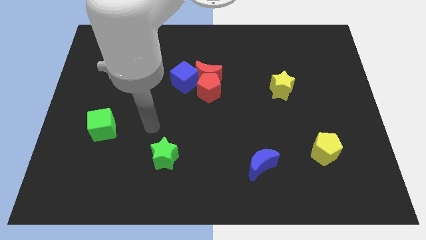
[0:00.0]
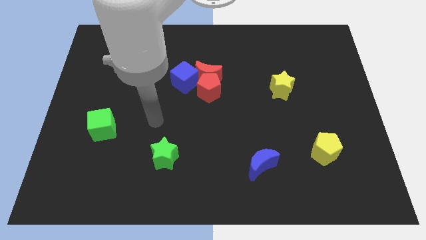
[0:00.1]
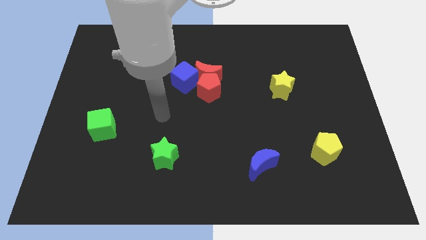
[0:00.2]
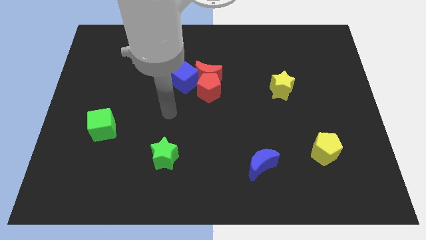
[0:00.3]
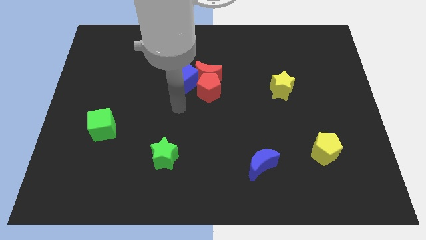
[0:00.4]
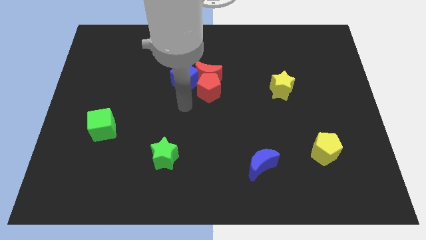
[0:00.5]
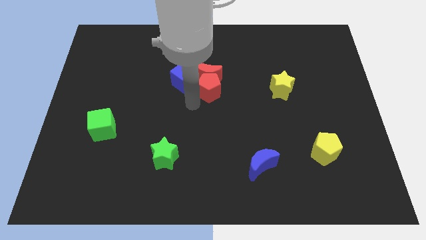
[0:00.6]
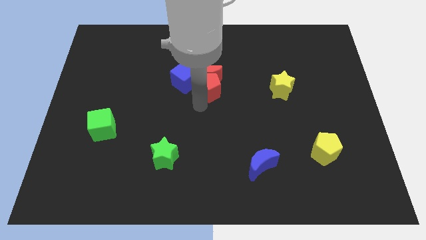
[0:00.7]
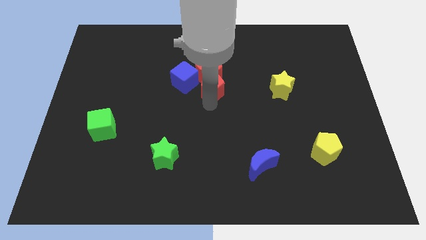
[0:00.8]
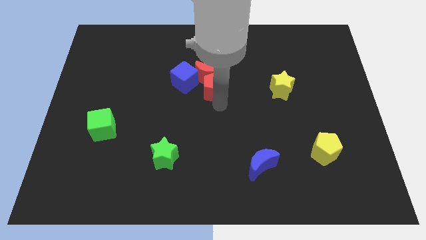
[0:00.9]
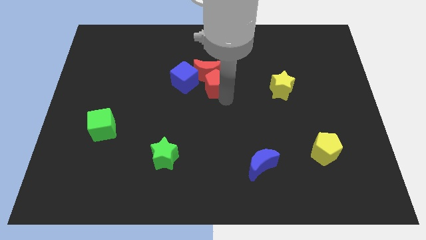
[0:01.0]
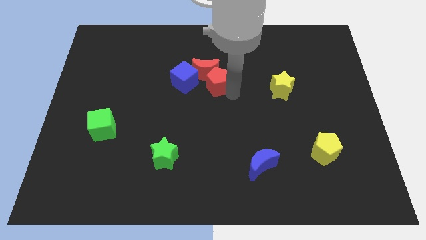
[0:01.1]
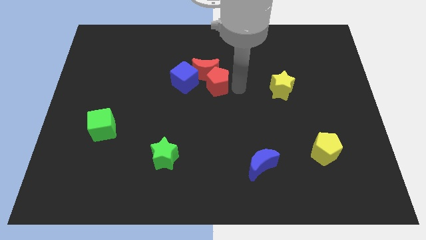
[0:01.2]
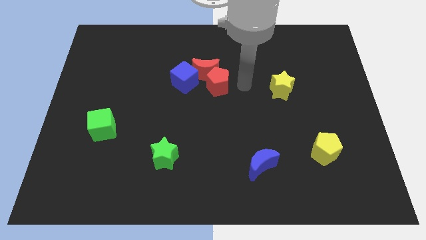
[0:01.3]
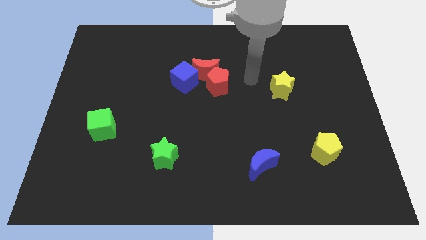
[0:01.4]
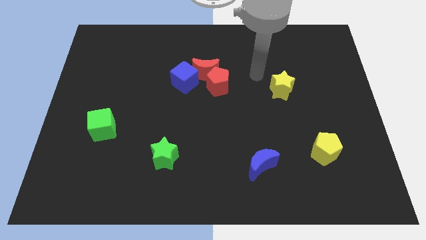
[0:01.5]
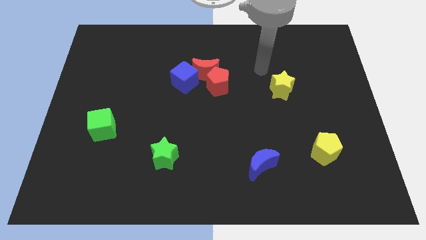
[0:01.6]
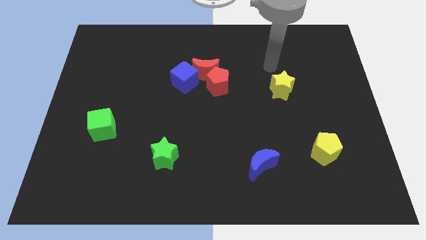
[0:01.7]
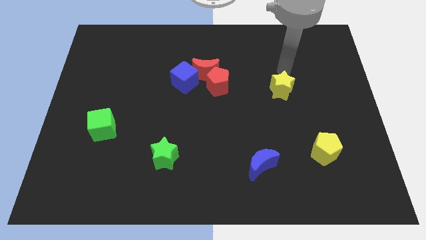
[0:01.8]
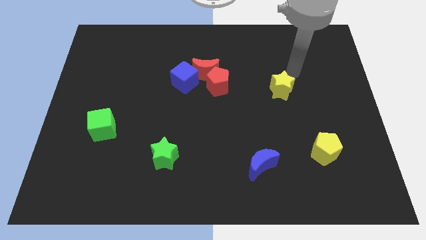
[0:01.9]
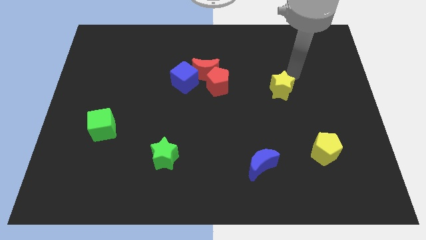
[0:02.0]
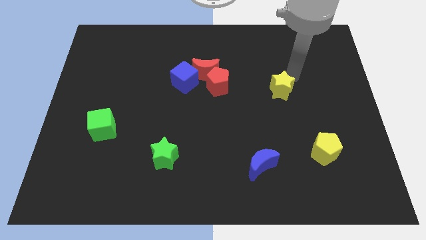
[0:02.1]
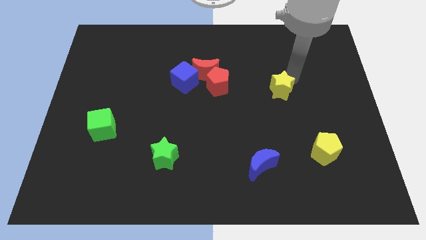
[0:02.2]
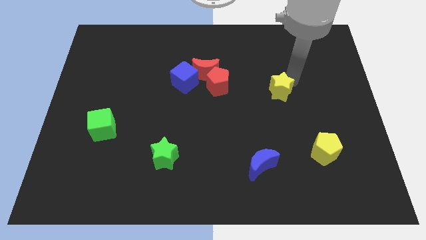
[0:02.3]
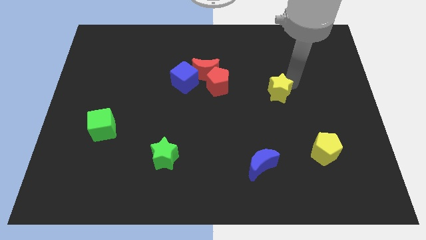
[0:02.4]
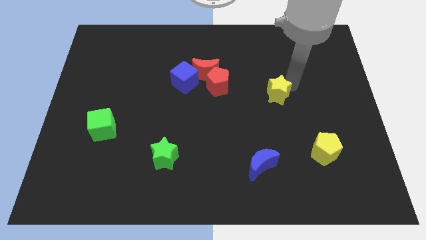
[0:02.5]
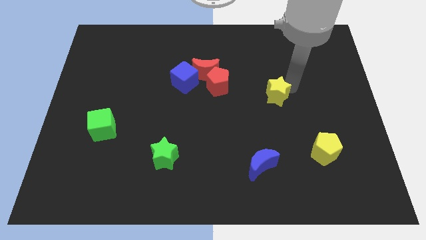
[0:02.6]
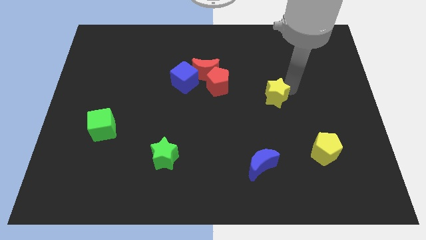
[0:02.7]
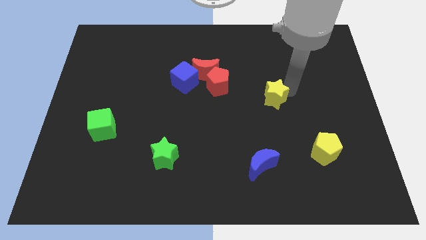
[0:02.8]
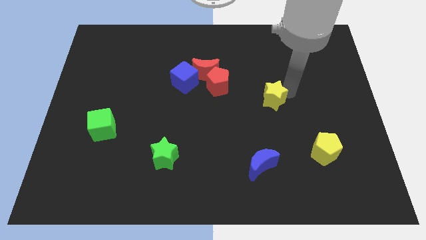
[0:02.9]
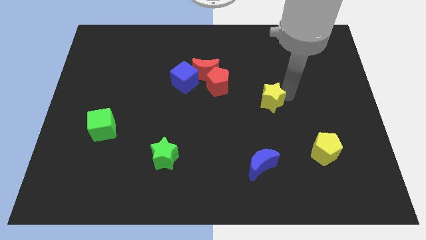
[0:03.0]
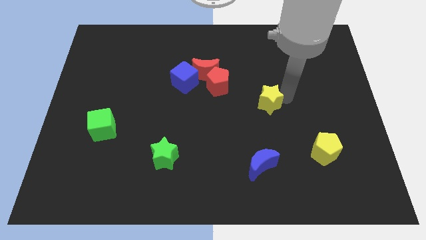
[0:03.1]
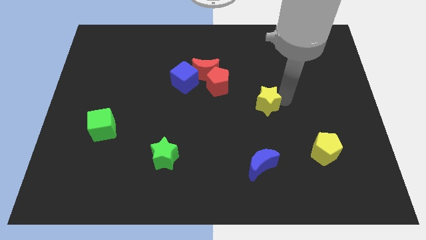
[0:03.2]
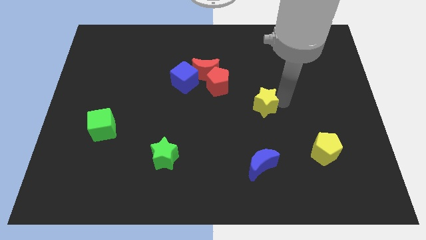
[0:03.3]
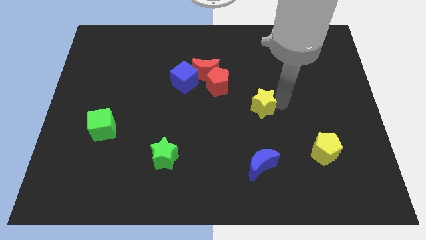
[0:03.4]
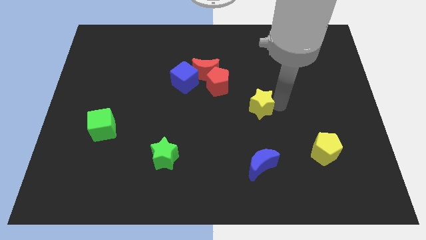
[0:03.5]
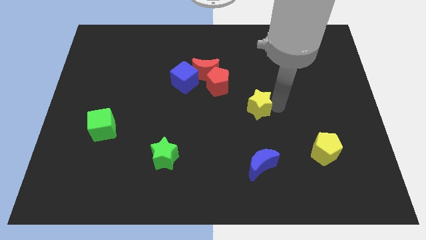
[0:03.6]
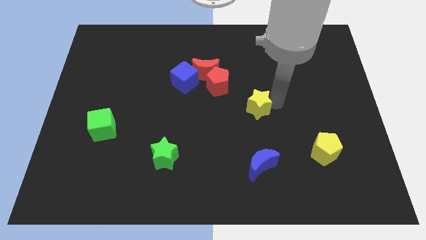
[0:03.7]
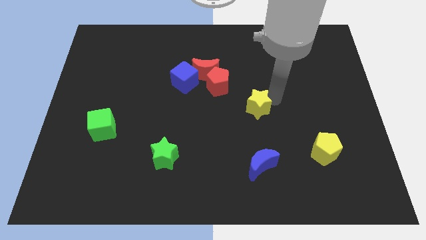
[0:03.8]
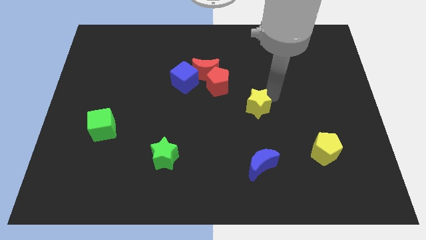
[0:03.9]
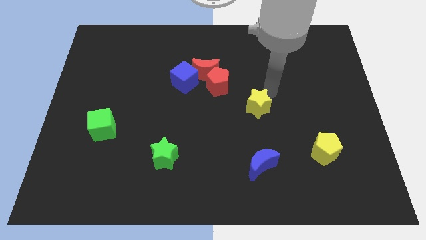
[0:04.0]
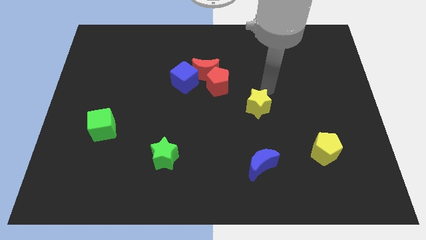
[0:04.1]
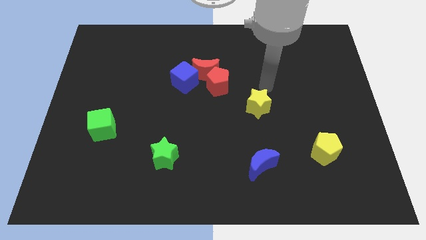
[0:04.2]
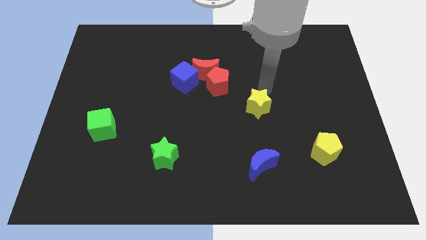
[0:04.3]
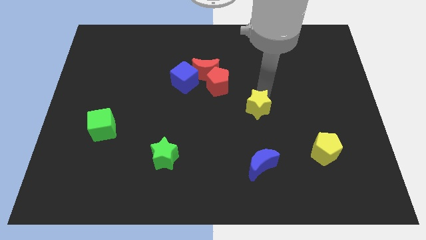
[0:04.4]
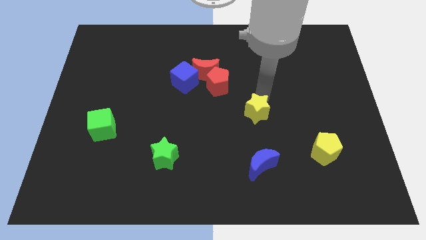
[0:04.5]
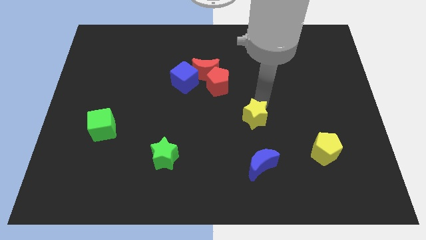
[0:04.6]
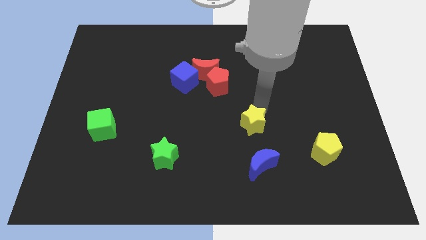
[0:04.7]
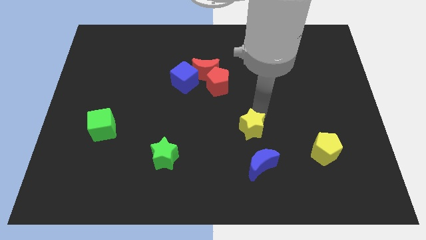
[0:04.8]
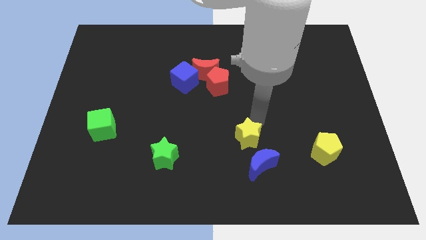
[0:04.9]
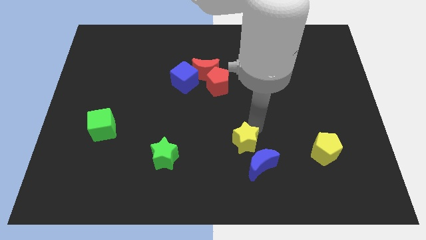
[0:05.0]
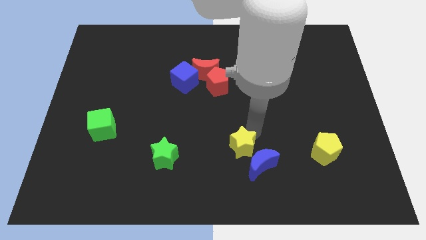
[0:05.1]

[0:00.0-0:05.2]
push the yellow star just left of the blue moon

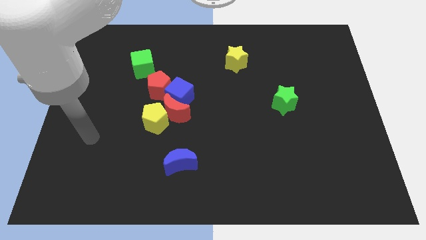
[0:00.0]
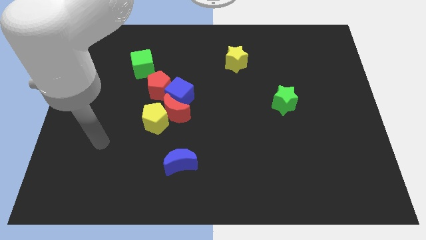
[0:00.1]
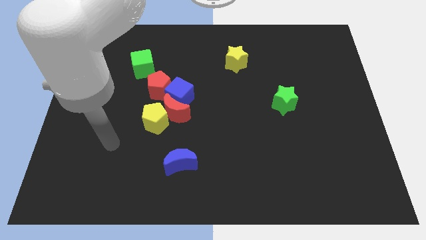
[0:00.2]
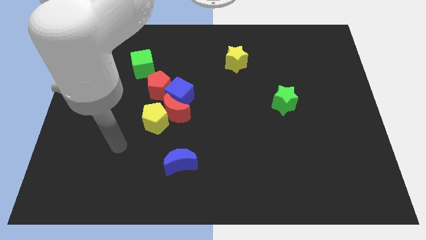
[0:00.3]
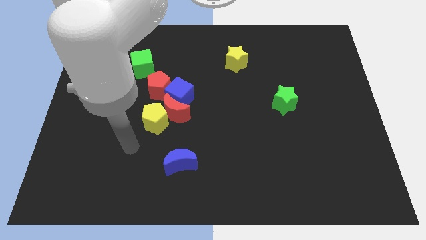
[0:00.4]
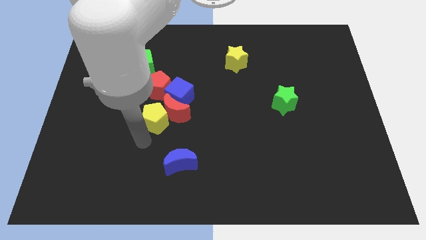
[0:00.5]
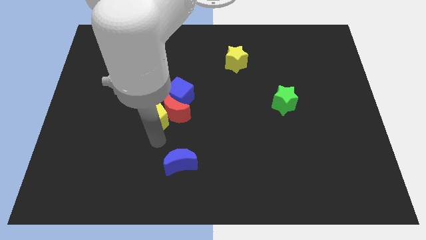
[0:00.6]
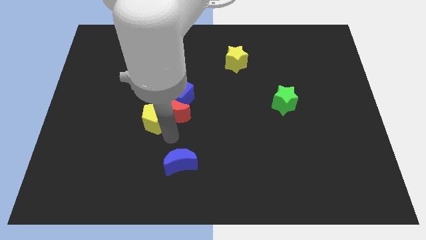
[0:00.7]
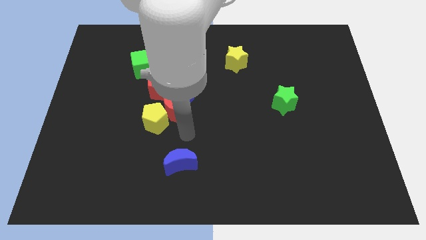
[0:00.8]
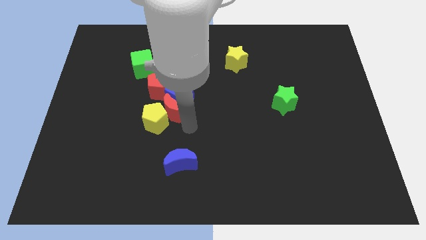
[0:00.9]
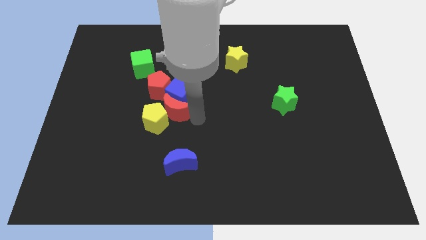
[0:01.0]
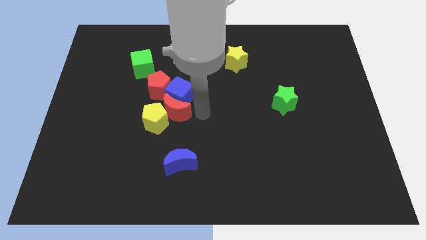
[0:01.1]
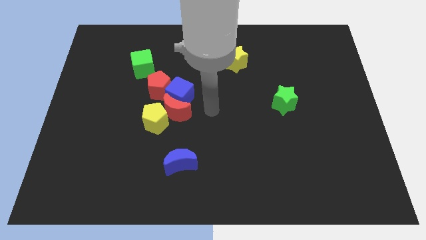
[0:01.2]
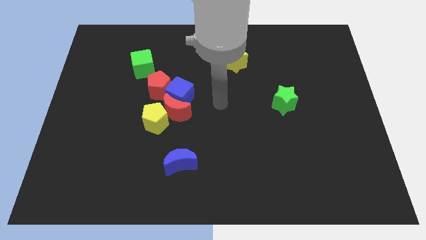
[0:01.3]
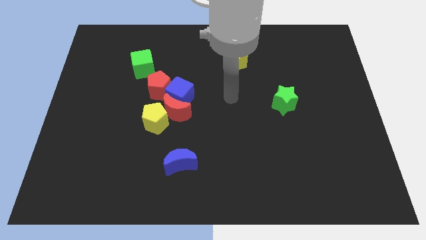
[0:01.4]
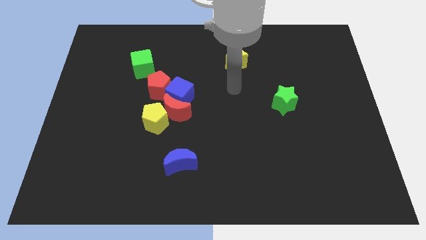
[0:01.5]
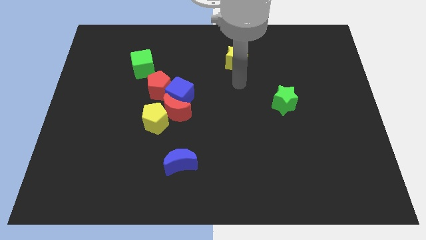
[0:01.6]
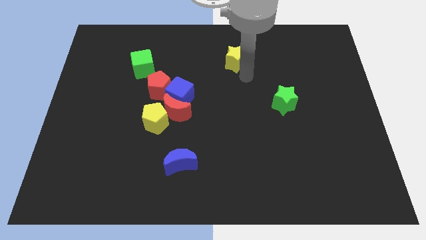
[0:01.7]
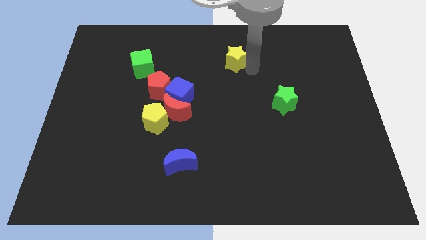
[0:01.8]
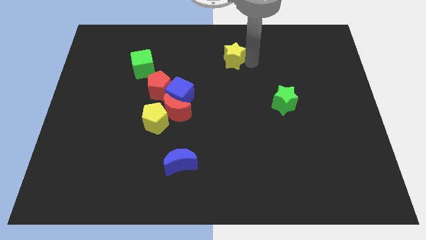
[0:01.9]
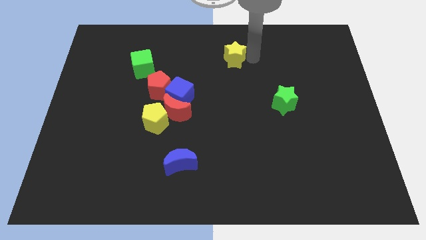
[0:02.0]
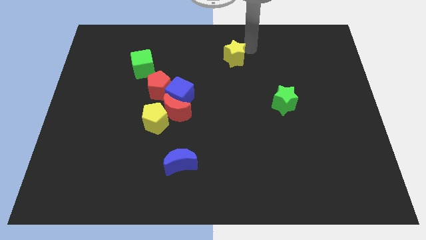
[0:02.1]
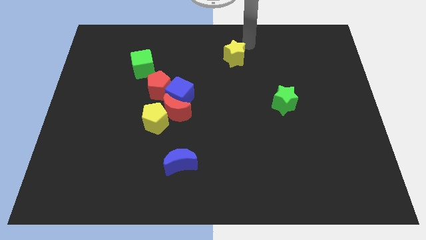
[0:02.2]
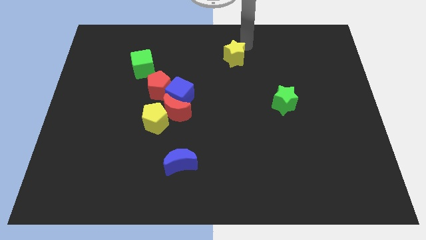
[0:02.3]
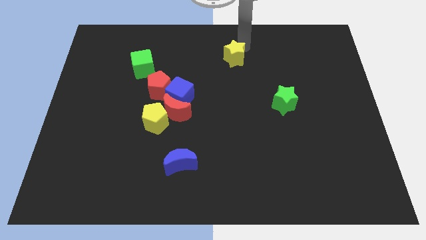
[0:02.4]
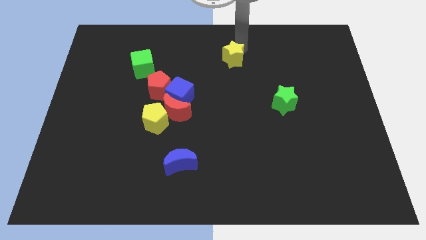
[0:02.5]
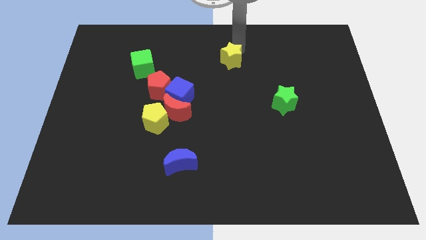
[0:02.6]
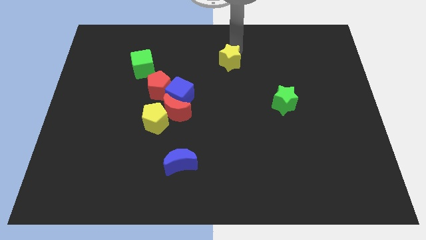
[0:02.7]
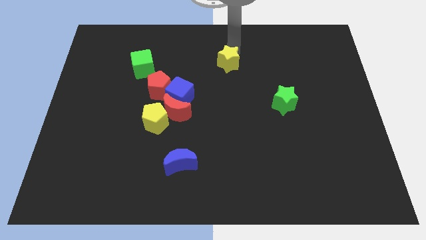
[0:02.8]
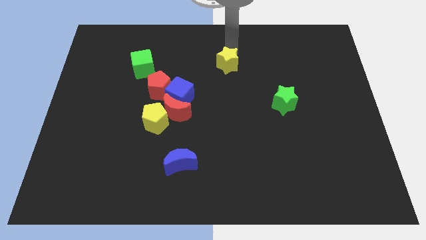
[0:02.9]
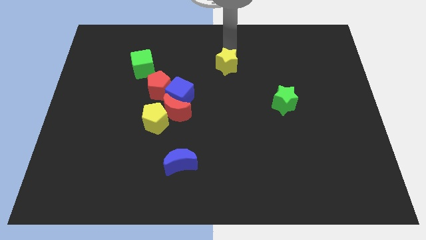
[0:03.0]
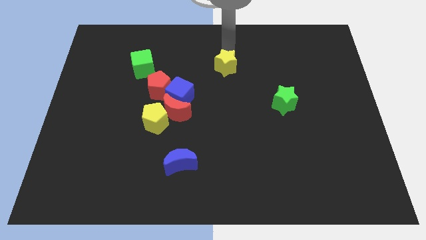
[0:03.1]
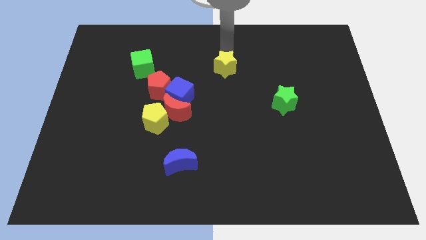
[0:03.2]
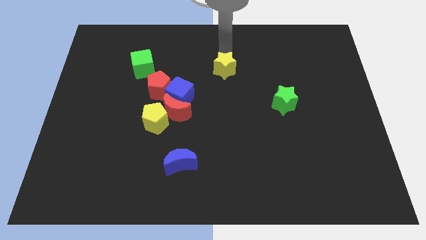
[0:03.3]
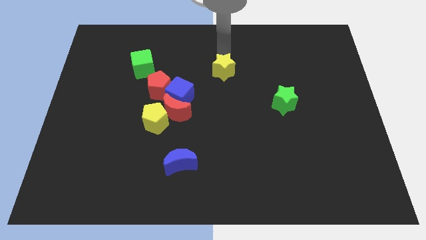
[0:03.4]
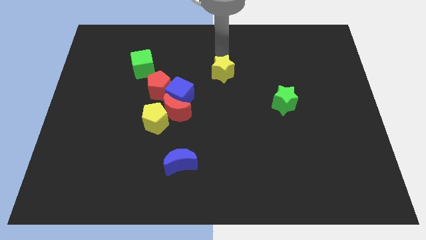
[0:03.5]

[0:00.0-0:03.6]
put the yellow star diagonally up and to the right of the blue cube
